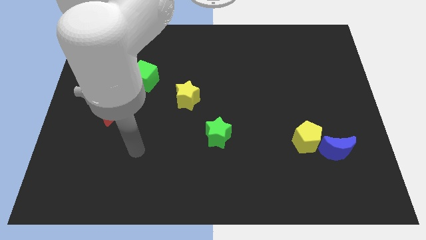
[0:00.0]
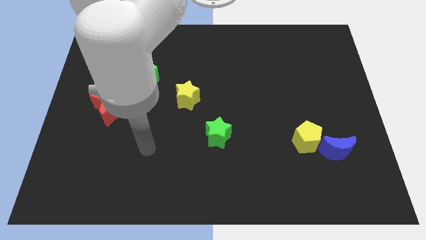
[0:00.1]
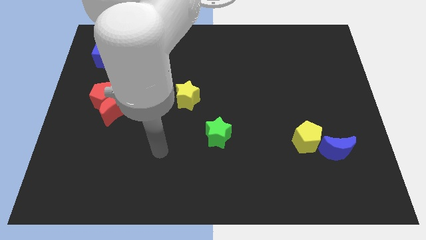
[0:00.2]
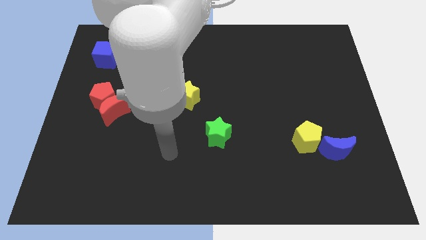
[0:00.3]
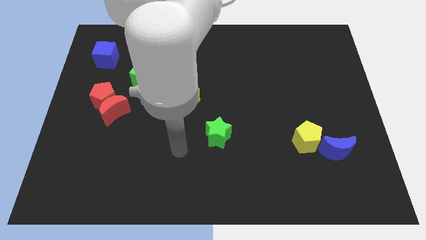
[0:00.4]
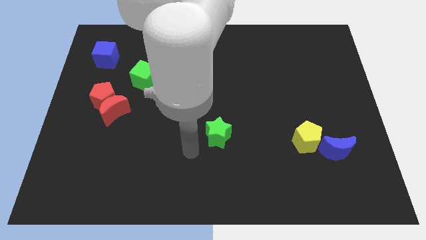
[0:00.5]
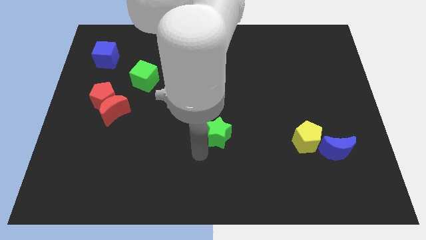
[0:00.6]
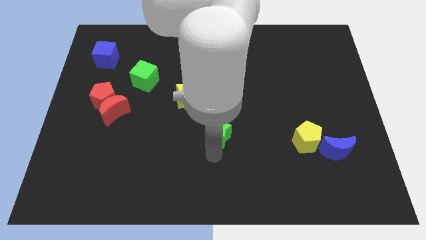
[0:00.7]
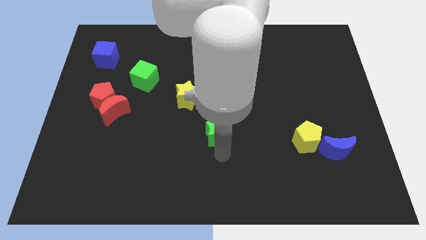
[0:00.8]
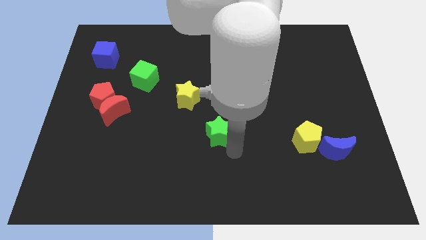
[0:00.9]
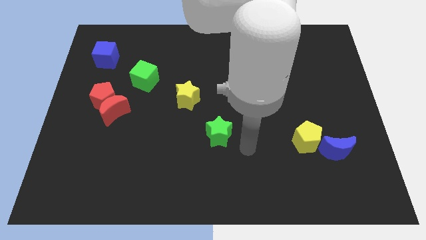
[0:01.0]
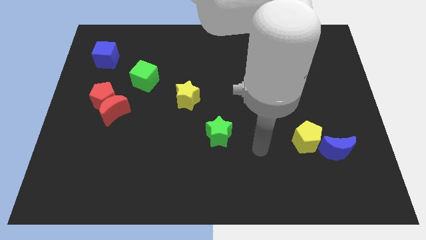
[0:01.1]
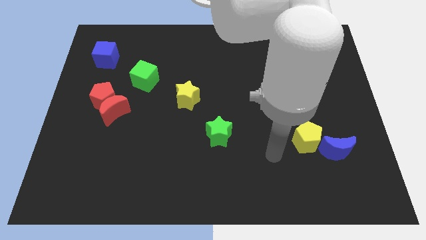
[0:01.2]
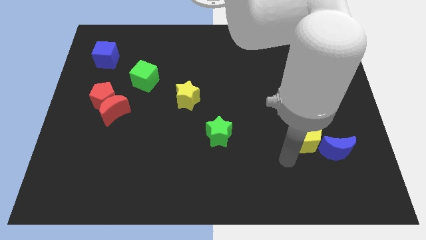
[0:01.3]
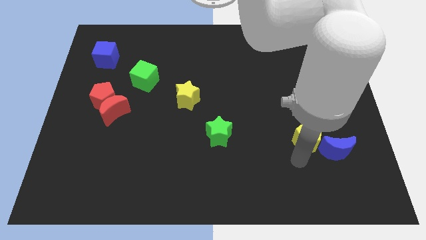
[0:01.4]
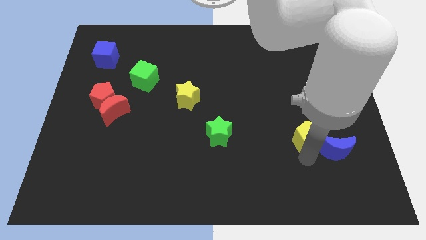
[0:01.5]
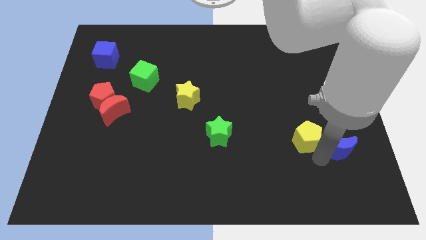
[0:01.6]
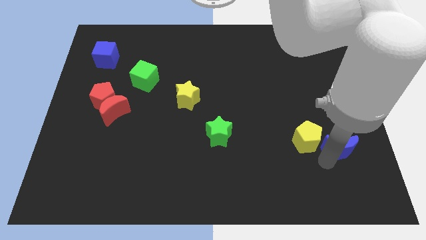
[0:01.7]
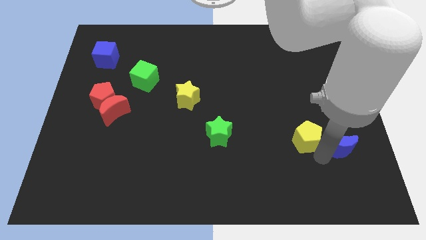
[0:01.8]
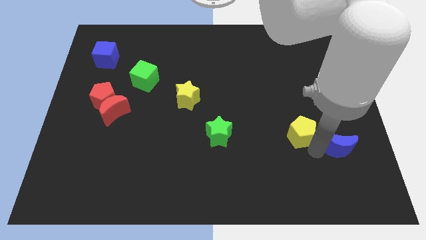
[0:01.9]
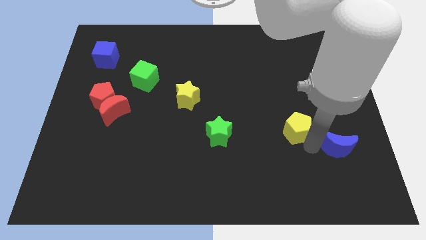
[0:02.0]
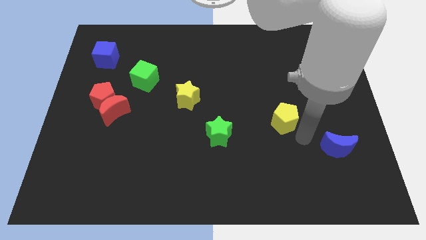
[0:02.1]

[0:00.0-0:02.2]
move the yellow pentagon upwards and left diagonally a little bit

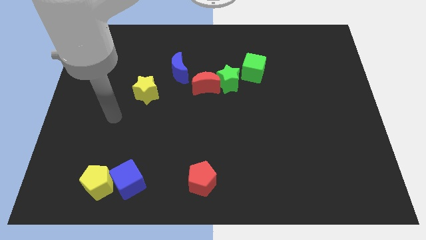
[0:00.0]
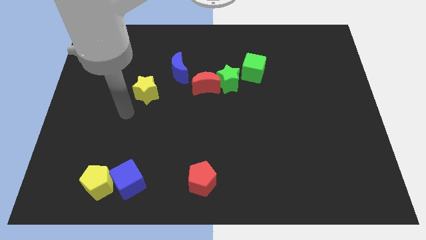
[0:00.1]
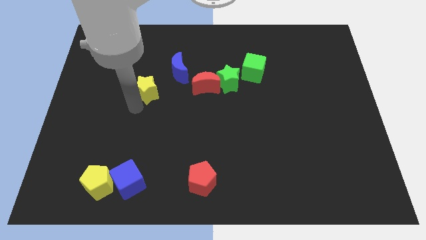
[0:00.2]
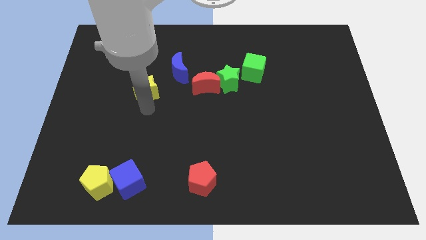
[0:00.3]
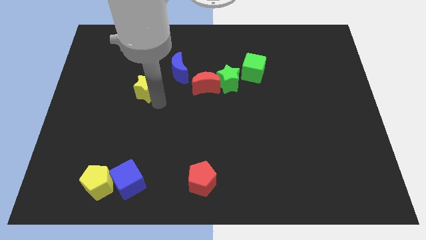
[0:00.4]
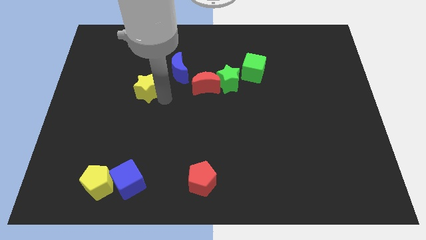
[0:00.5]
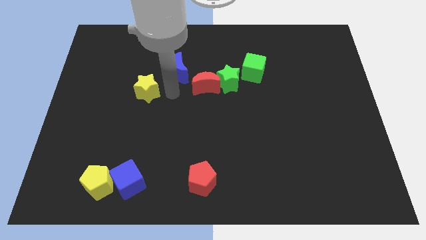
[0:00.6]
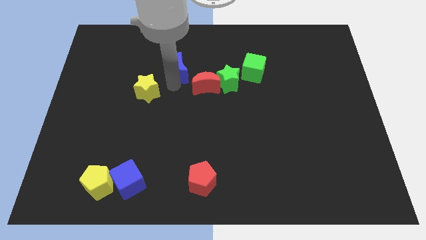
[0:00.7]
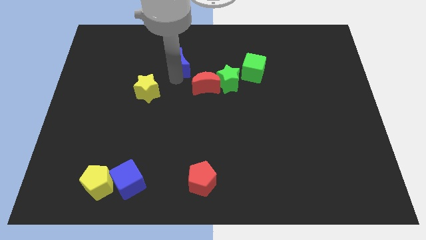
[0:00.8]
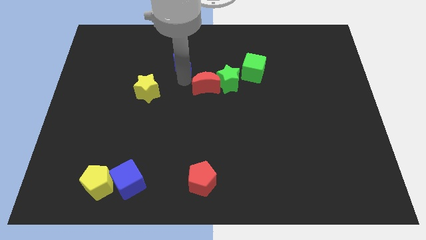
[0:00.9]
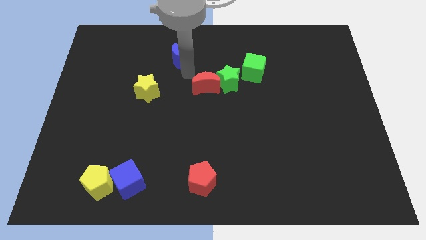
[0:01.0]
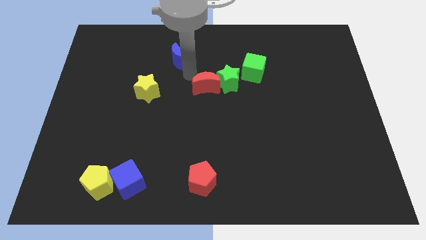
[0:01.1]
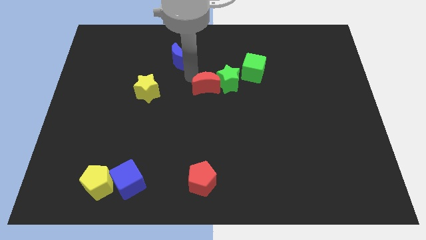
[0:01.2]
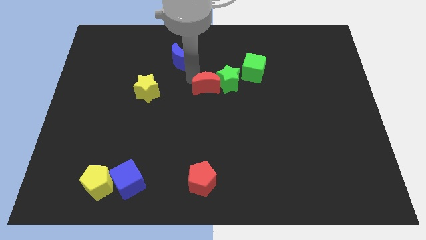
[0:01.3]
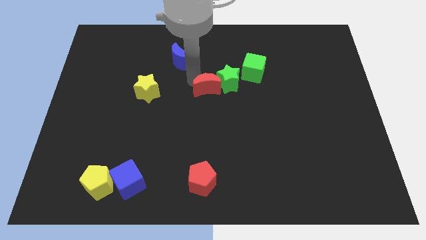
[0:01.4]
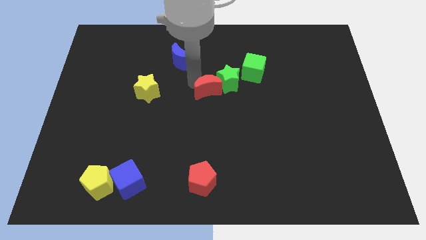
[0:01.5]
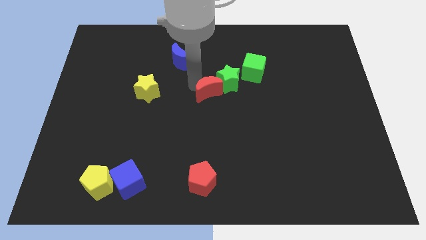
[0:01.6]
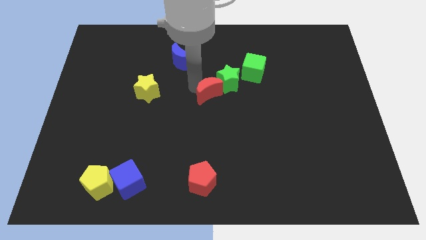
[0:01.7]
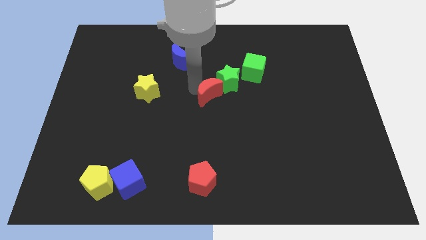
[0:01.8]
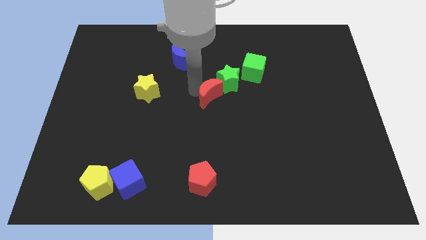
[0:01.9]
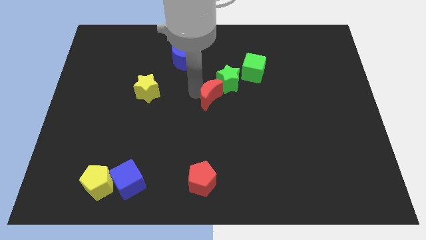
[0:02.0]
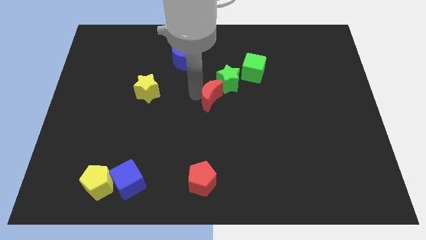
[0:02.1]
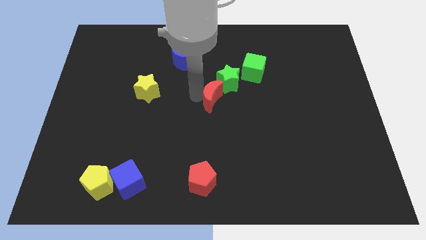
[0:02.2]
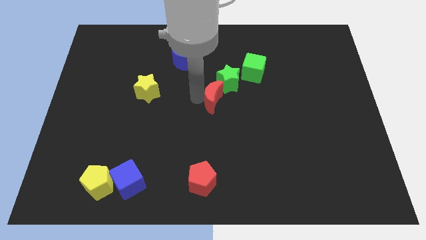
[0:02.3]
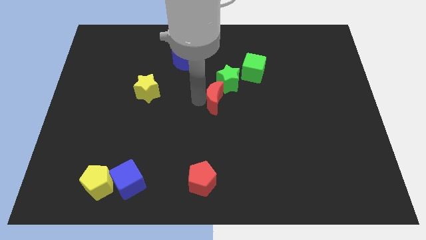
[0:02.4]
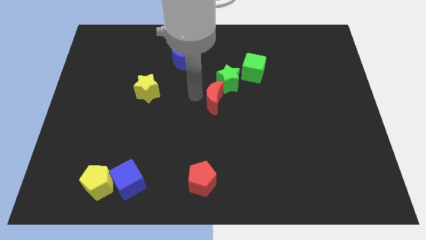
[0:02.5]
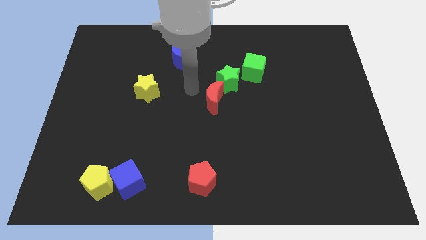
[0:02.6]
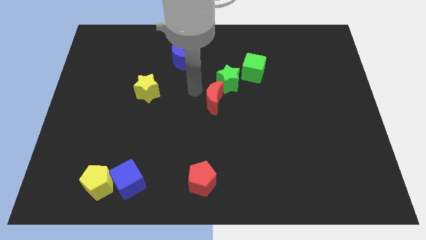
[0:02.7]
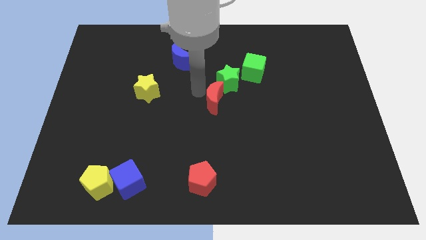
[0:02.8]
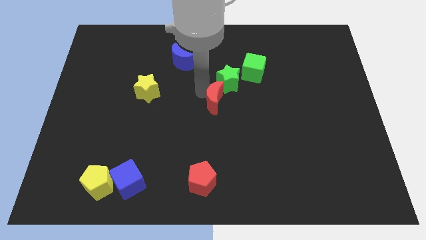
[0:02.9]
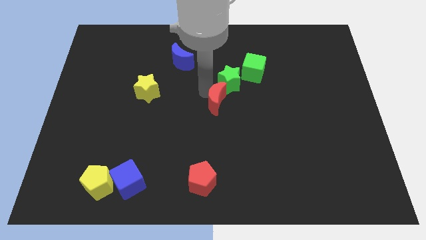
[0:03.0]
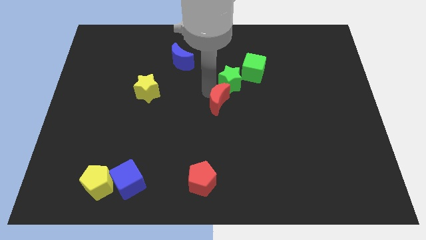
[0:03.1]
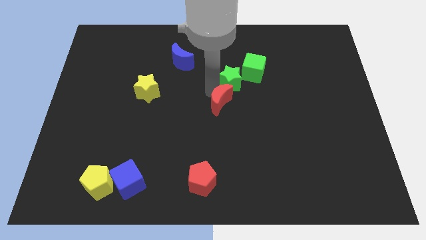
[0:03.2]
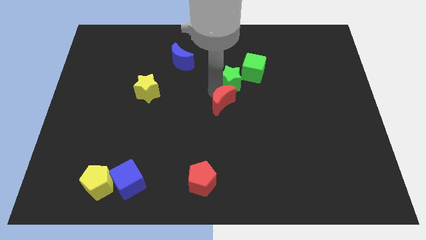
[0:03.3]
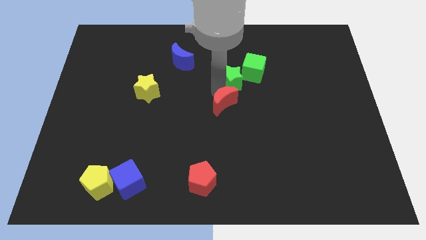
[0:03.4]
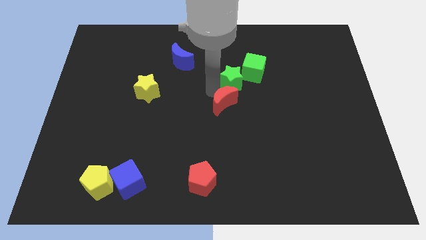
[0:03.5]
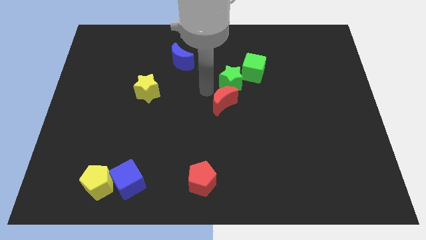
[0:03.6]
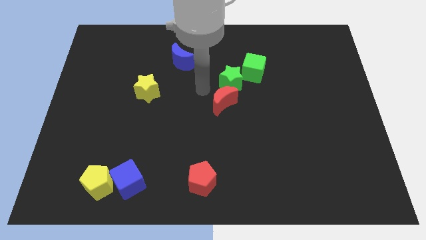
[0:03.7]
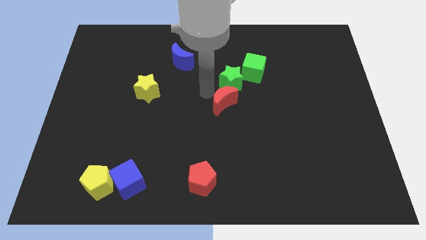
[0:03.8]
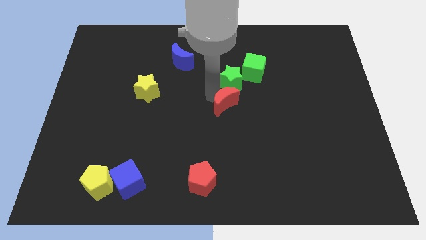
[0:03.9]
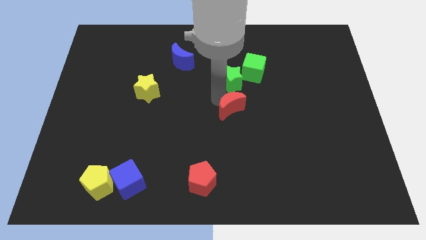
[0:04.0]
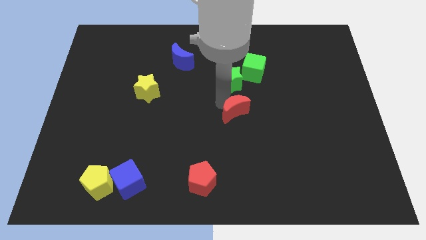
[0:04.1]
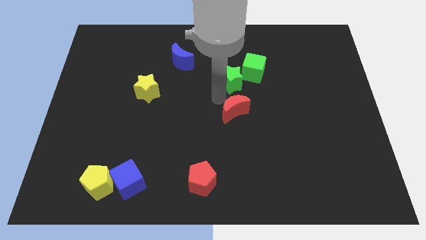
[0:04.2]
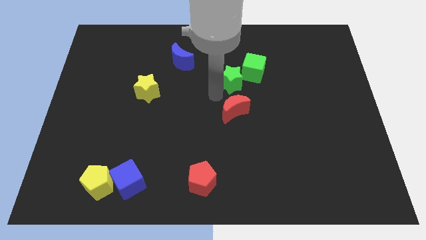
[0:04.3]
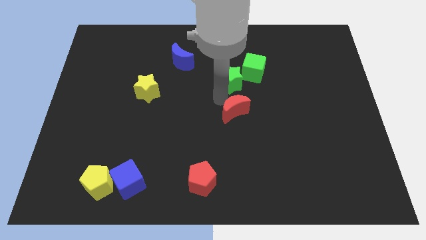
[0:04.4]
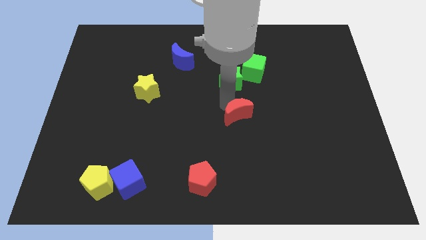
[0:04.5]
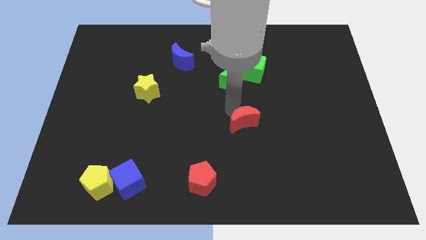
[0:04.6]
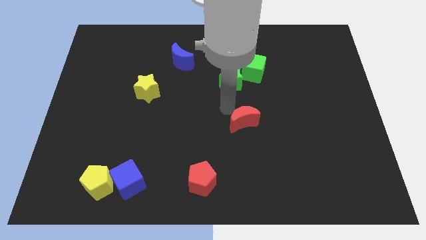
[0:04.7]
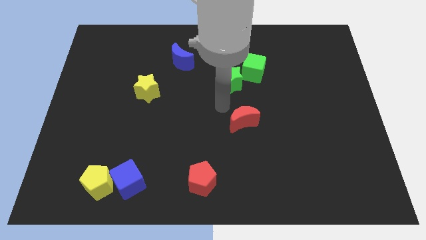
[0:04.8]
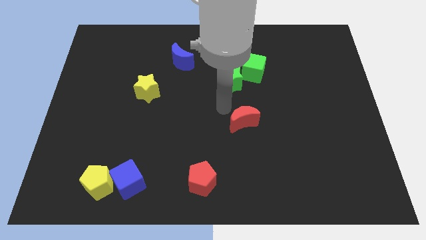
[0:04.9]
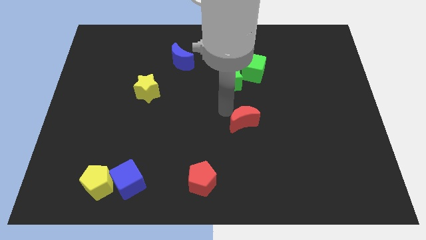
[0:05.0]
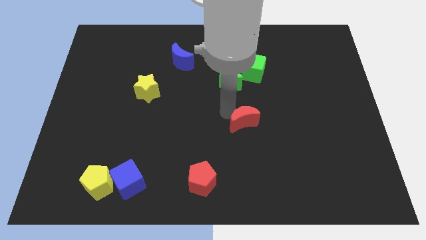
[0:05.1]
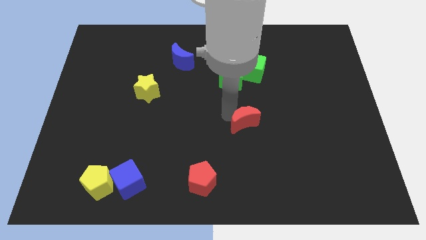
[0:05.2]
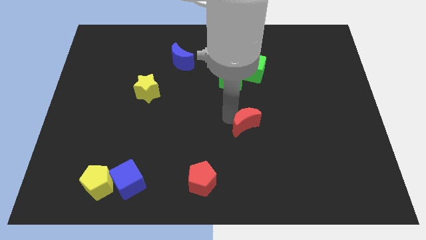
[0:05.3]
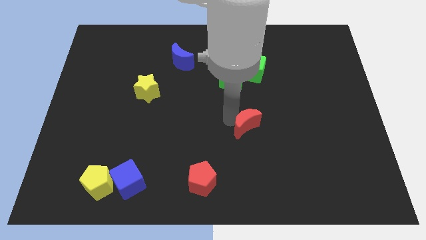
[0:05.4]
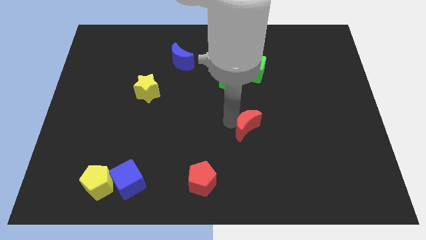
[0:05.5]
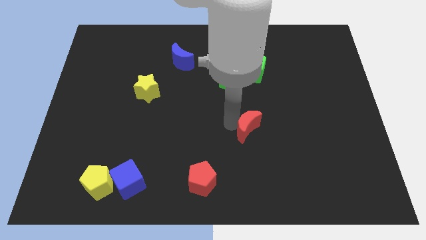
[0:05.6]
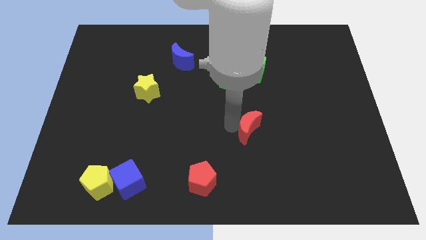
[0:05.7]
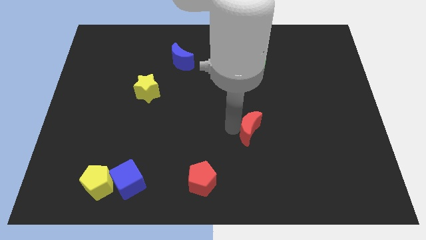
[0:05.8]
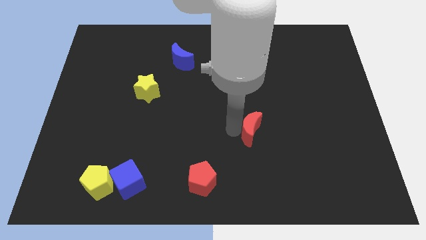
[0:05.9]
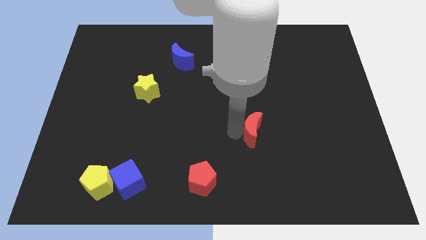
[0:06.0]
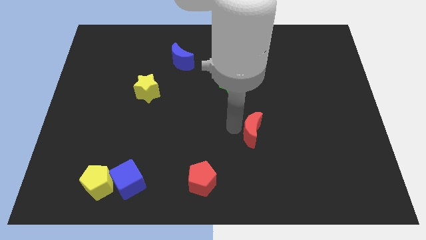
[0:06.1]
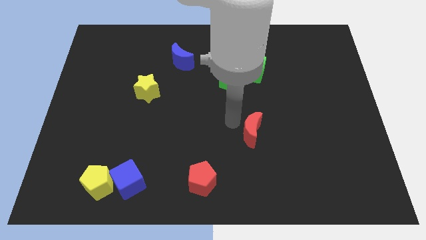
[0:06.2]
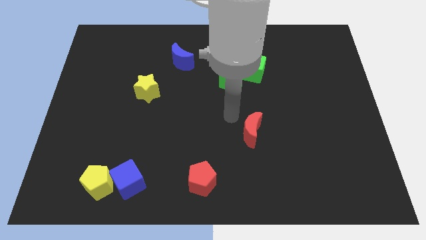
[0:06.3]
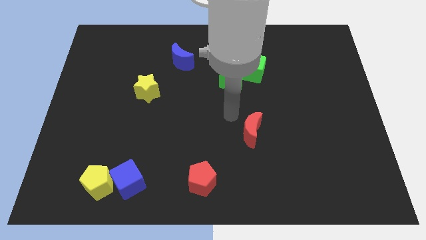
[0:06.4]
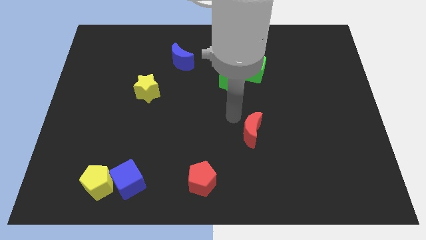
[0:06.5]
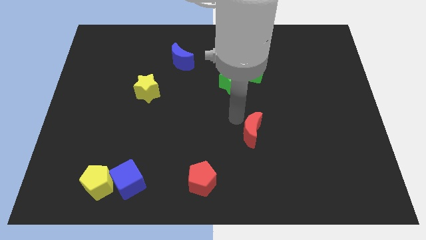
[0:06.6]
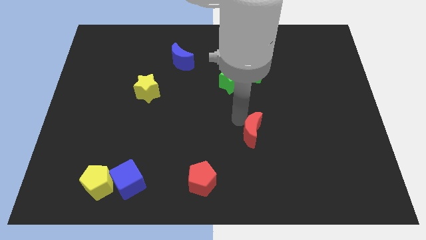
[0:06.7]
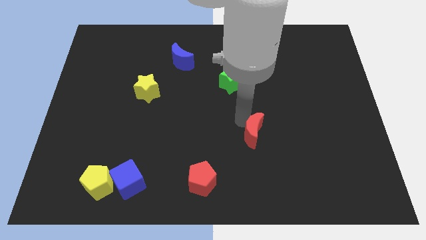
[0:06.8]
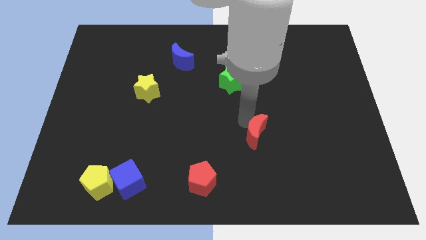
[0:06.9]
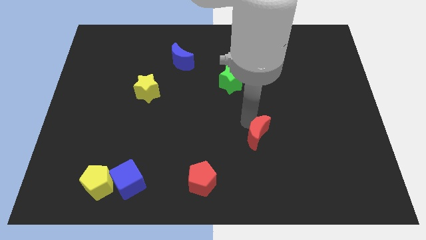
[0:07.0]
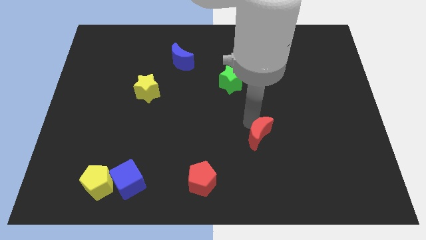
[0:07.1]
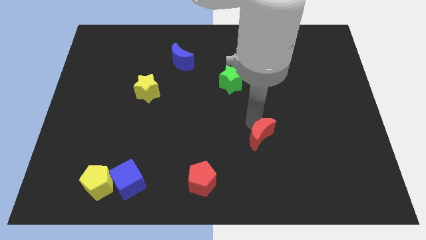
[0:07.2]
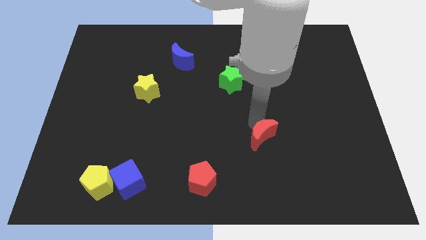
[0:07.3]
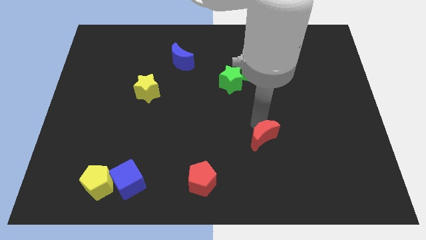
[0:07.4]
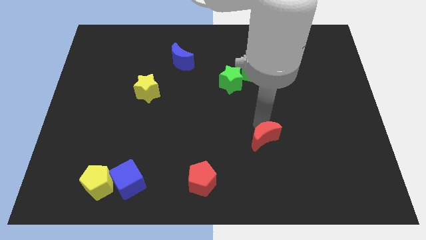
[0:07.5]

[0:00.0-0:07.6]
move the red moon diagonally downwards and right
